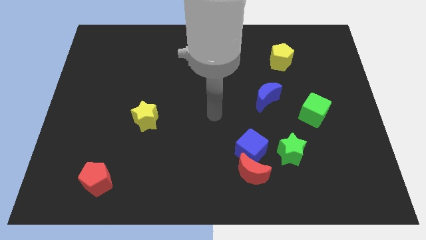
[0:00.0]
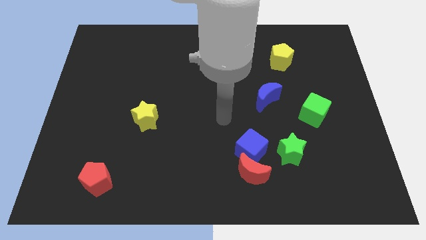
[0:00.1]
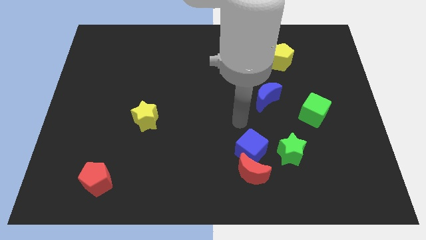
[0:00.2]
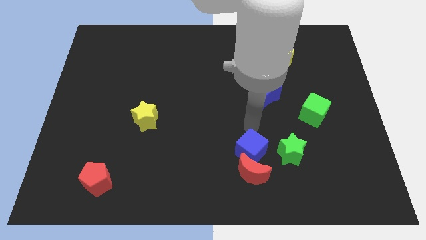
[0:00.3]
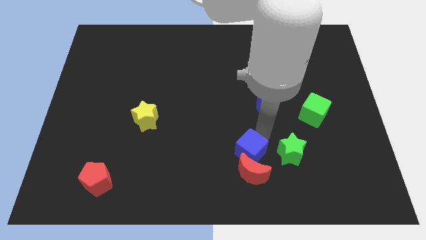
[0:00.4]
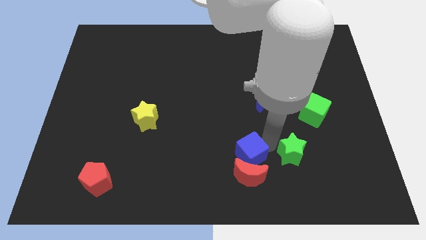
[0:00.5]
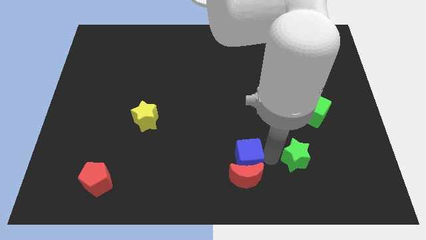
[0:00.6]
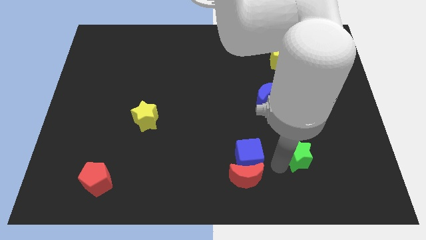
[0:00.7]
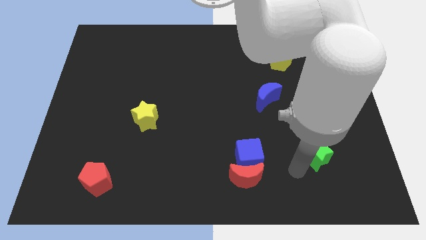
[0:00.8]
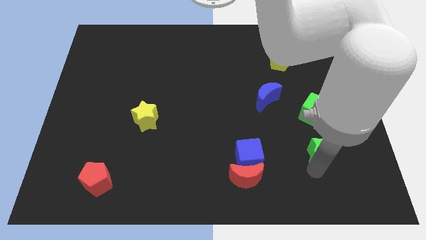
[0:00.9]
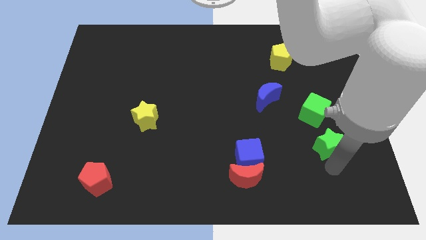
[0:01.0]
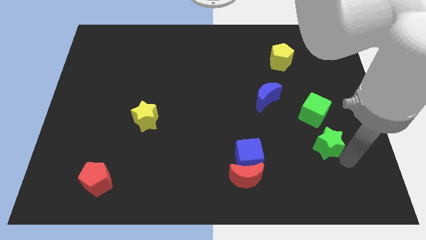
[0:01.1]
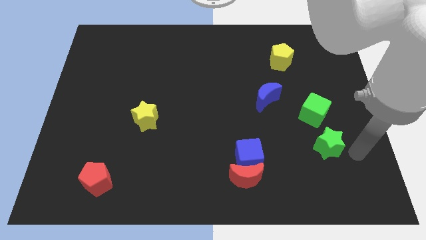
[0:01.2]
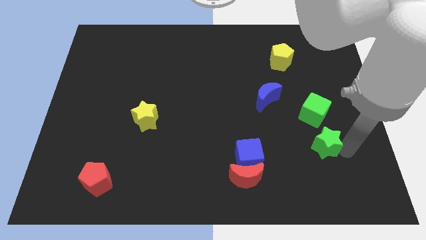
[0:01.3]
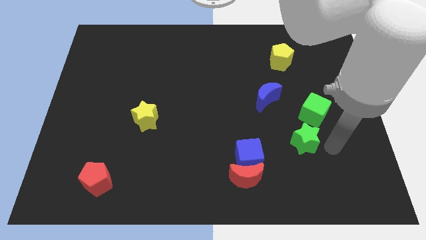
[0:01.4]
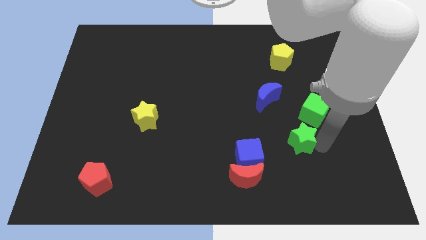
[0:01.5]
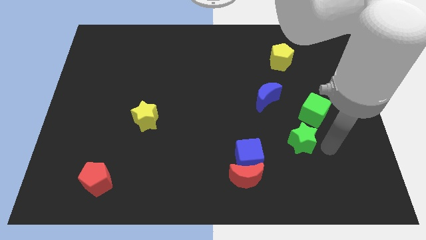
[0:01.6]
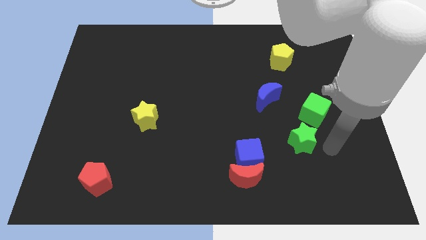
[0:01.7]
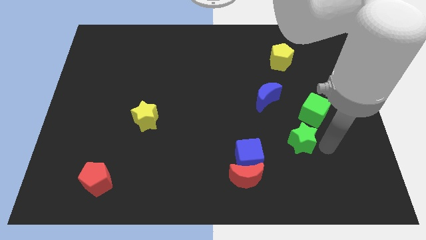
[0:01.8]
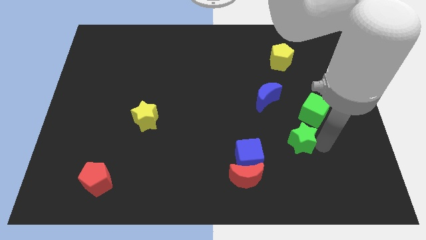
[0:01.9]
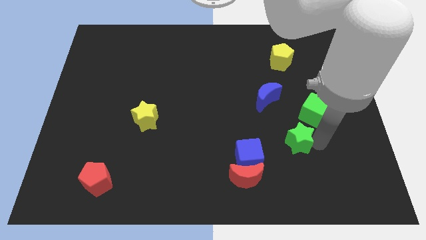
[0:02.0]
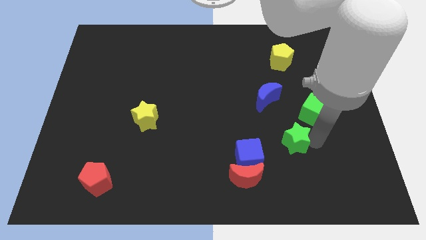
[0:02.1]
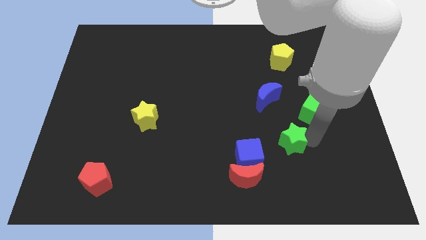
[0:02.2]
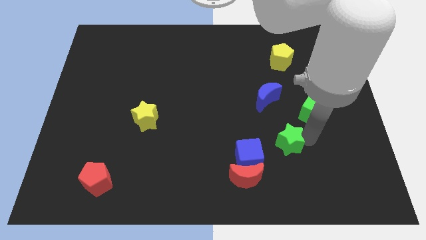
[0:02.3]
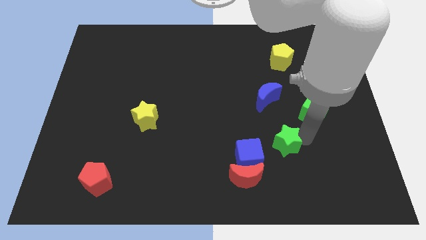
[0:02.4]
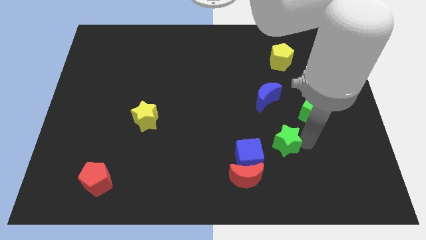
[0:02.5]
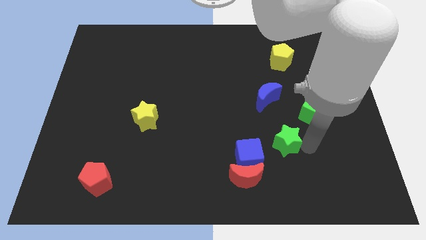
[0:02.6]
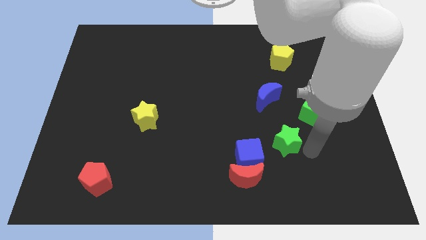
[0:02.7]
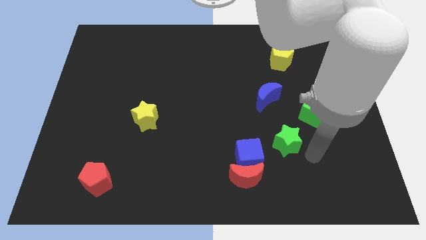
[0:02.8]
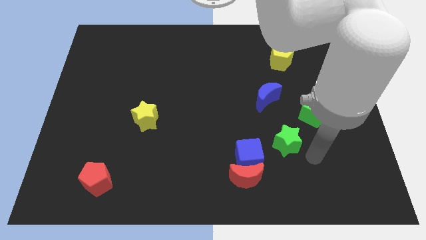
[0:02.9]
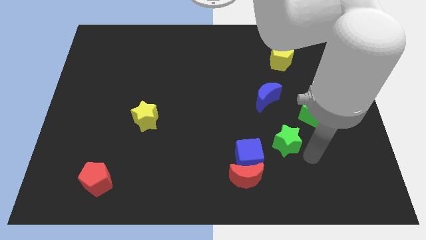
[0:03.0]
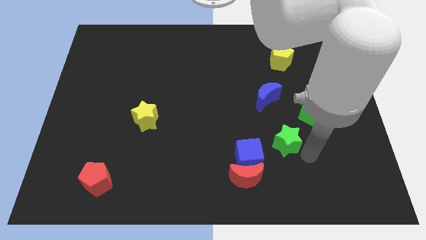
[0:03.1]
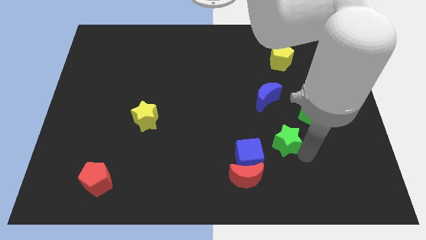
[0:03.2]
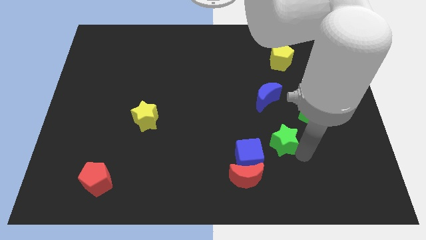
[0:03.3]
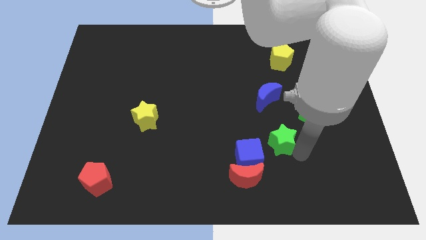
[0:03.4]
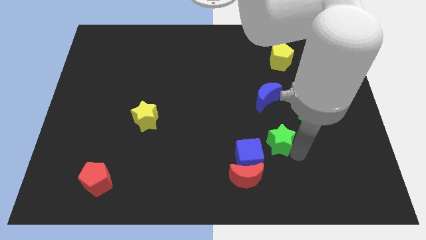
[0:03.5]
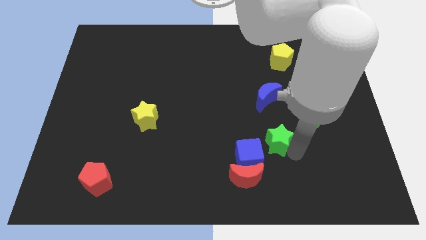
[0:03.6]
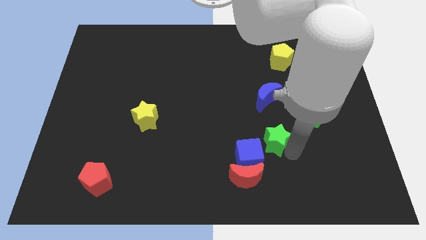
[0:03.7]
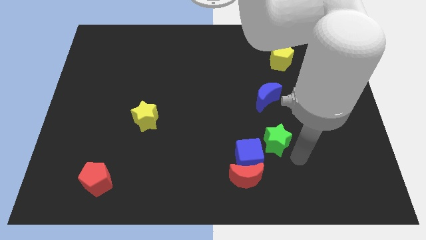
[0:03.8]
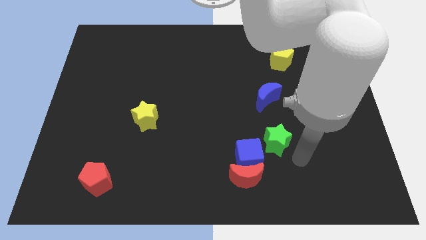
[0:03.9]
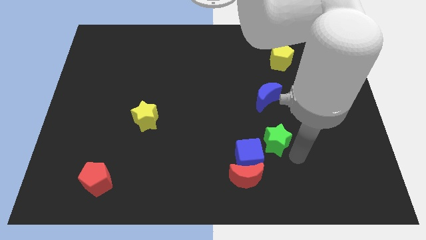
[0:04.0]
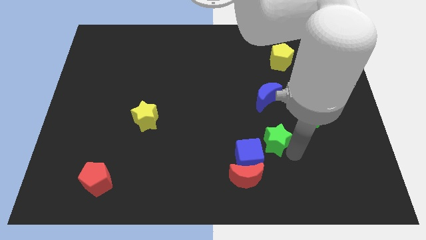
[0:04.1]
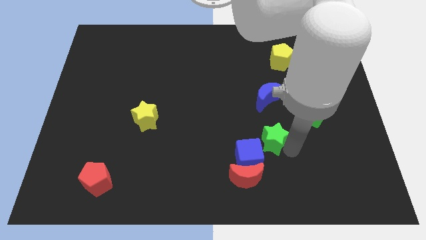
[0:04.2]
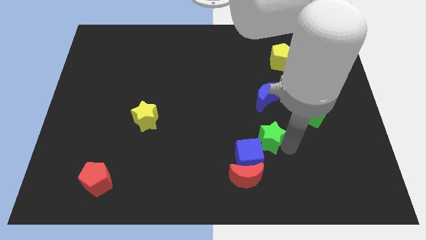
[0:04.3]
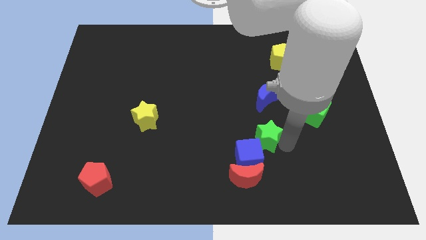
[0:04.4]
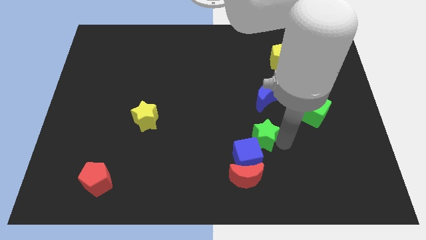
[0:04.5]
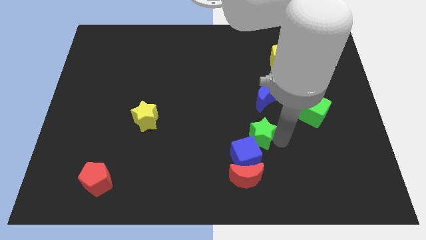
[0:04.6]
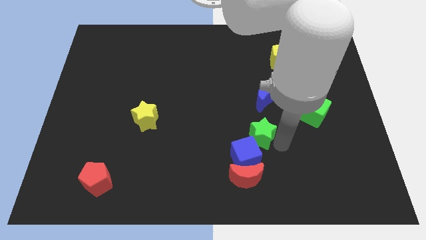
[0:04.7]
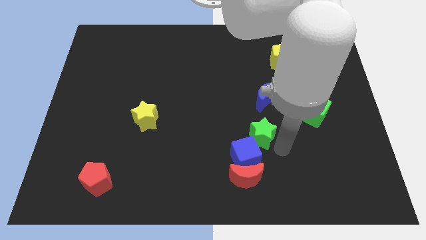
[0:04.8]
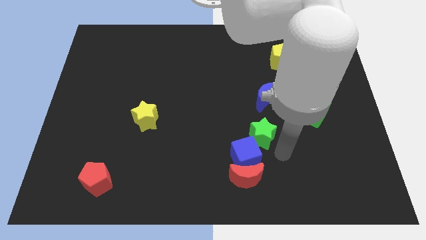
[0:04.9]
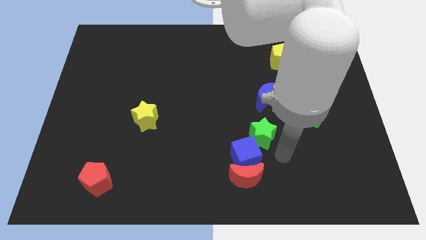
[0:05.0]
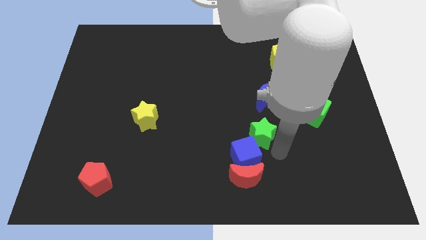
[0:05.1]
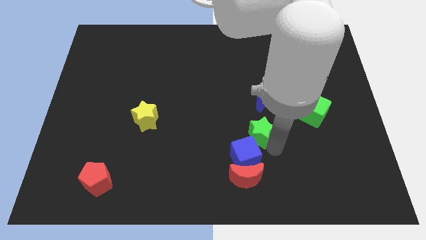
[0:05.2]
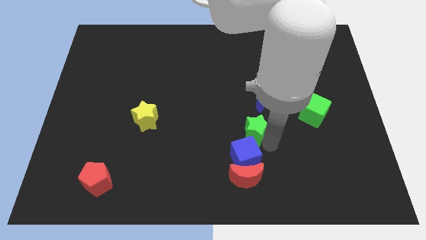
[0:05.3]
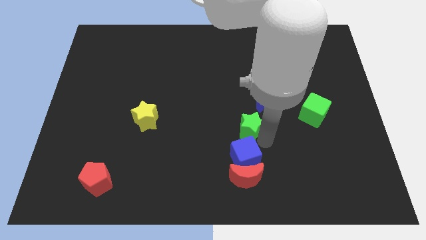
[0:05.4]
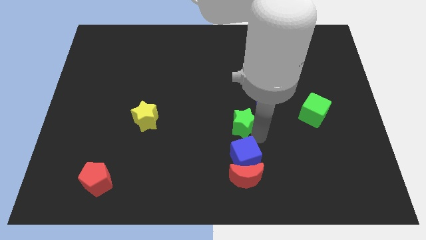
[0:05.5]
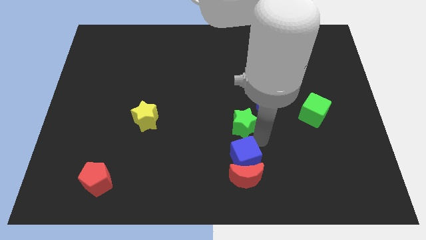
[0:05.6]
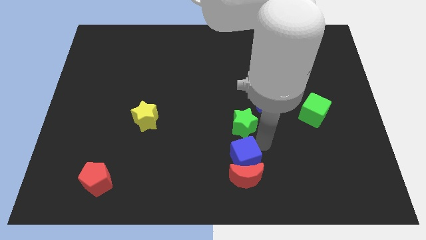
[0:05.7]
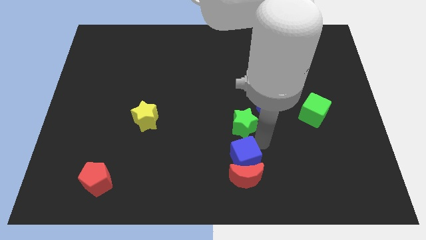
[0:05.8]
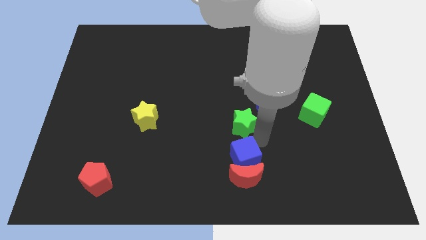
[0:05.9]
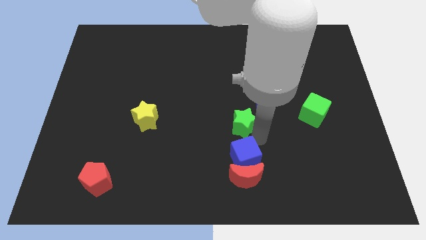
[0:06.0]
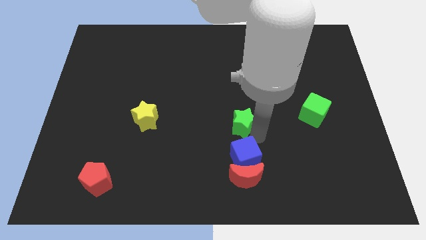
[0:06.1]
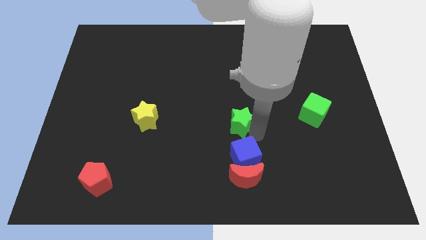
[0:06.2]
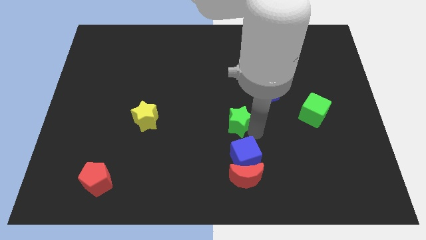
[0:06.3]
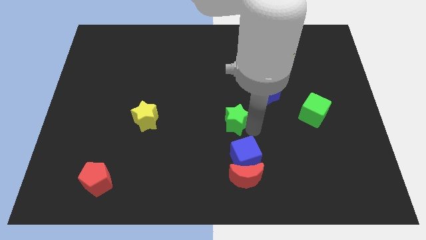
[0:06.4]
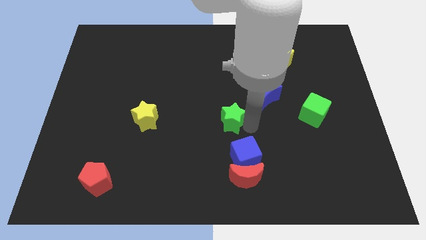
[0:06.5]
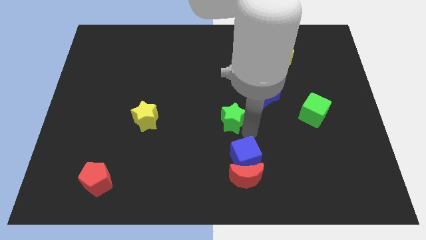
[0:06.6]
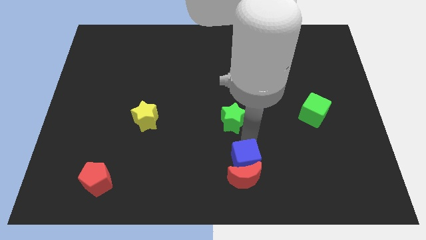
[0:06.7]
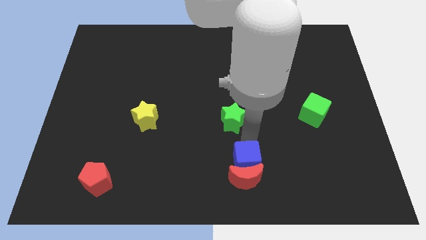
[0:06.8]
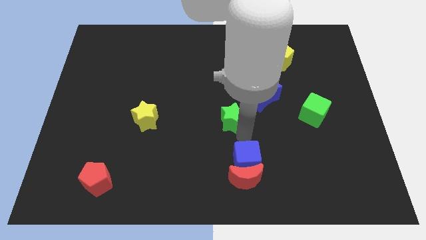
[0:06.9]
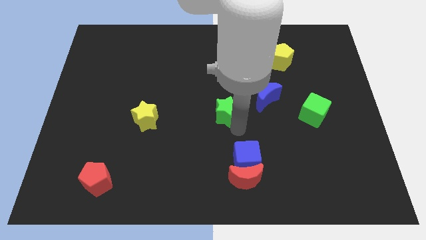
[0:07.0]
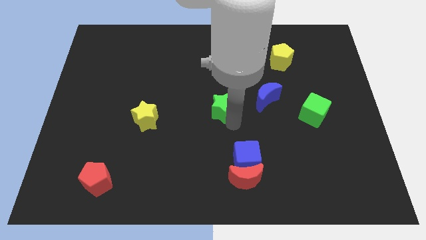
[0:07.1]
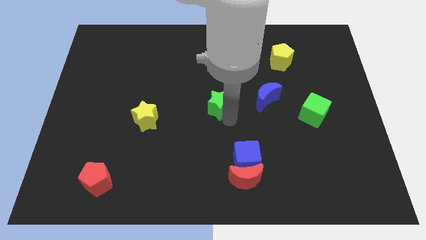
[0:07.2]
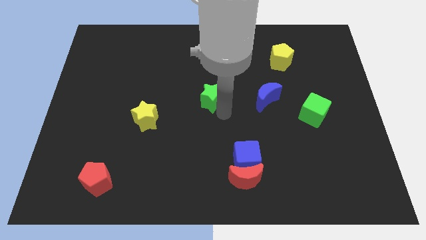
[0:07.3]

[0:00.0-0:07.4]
slide the green star diagonally up and to the left

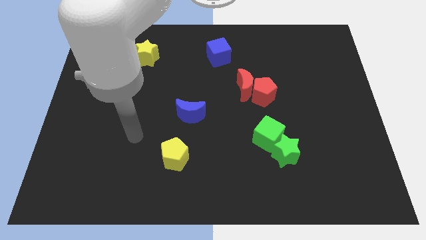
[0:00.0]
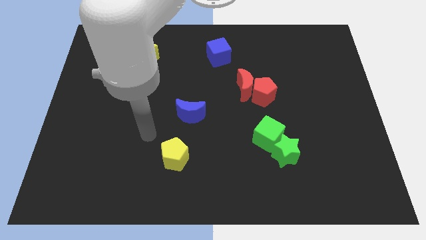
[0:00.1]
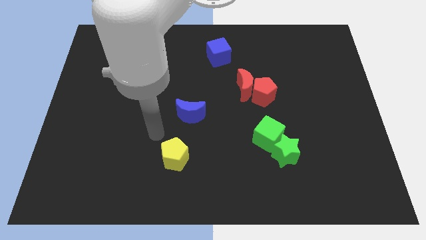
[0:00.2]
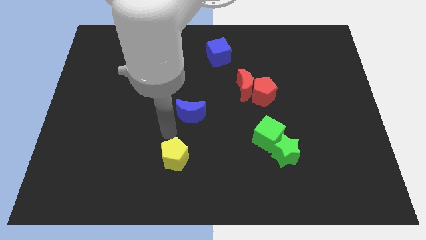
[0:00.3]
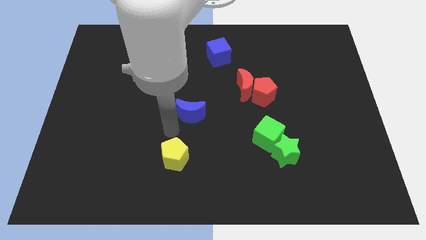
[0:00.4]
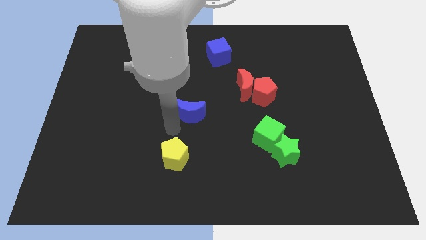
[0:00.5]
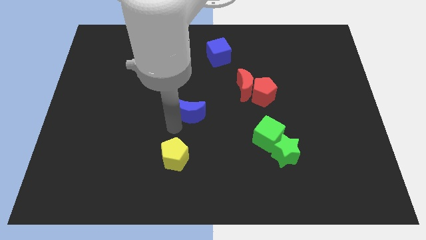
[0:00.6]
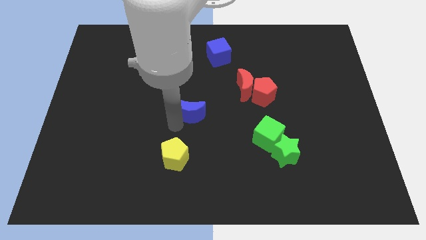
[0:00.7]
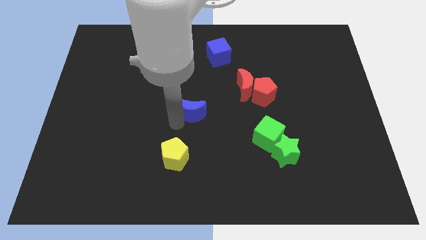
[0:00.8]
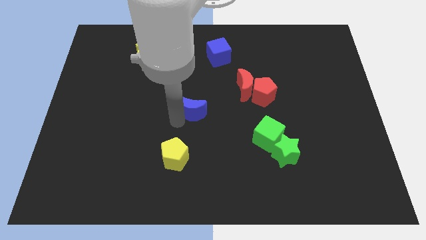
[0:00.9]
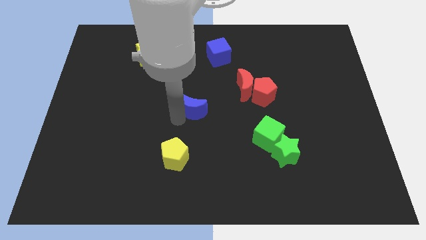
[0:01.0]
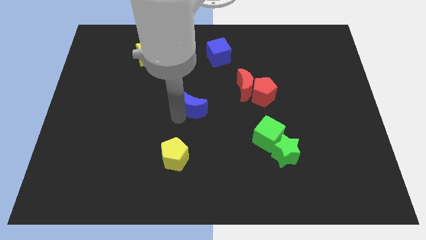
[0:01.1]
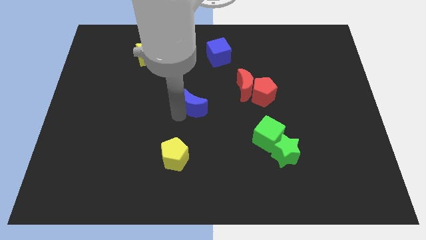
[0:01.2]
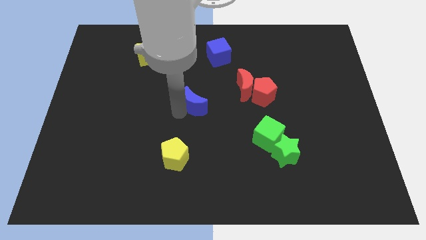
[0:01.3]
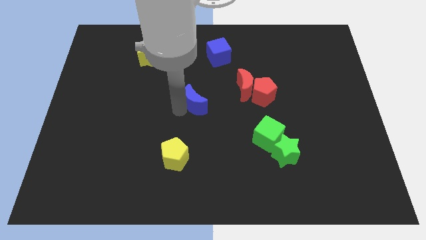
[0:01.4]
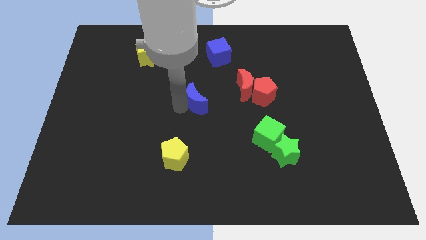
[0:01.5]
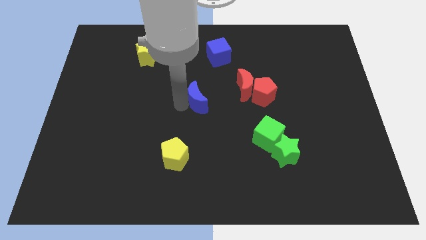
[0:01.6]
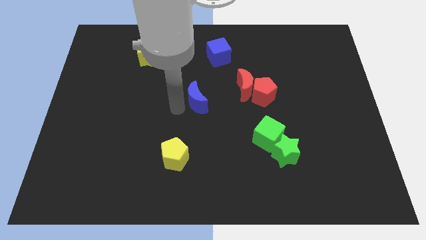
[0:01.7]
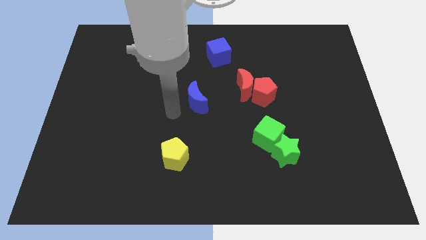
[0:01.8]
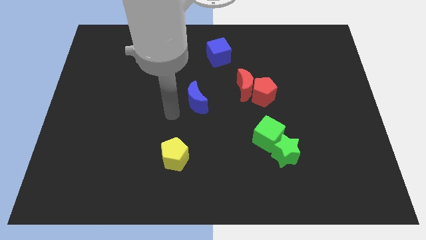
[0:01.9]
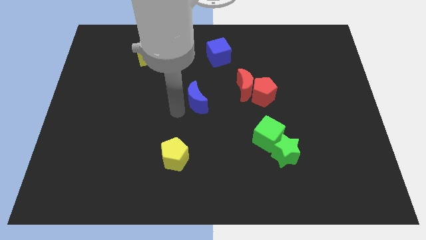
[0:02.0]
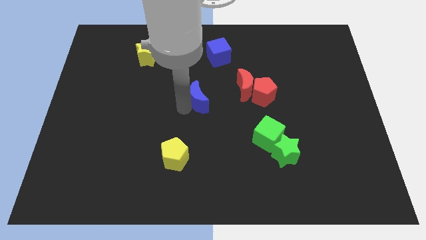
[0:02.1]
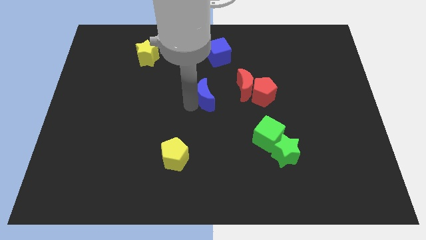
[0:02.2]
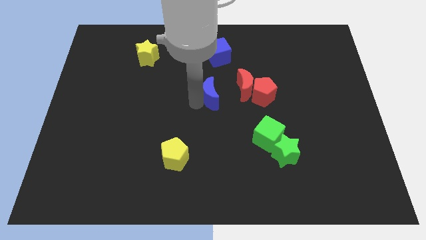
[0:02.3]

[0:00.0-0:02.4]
slide the blue moon upwards and then to the right a little bit
